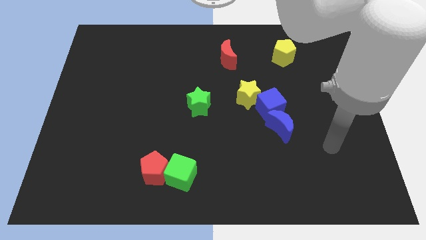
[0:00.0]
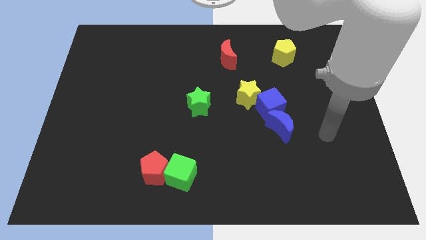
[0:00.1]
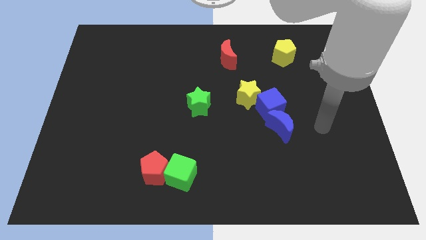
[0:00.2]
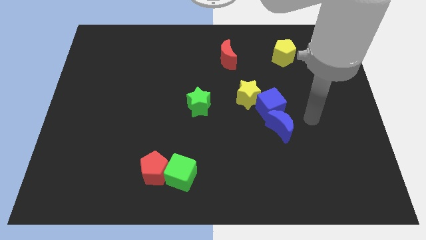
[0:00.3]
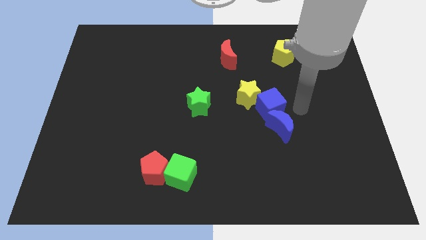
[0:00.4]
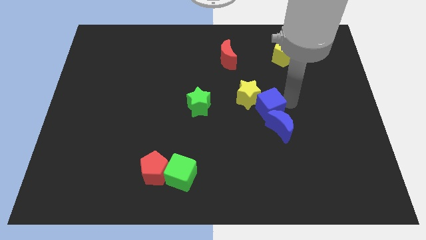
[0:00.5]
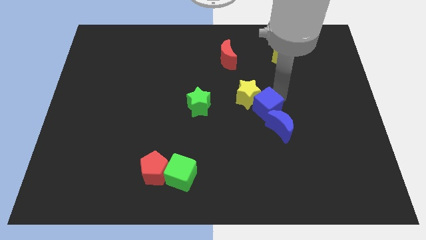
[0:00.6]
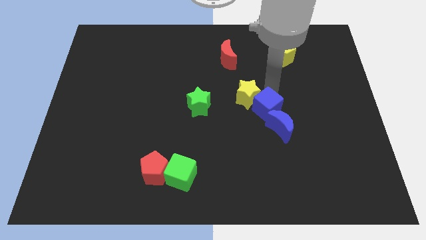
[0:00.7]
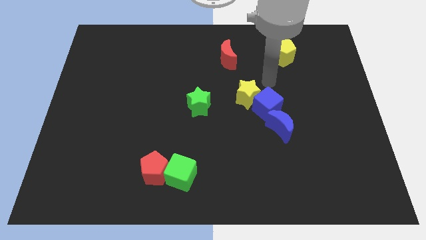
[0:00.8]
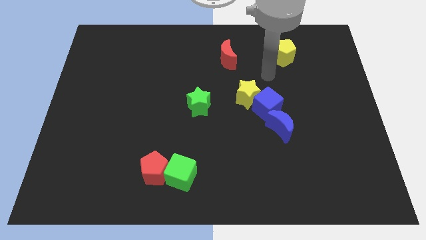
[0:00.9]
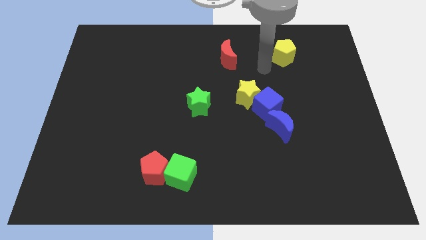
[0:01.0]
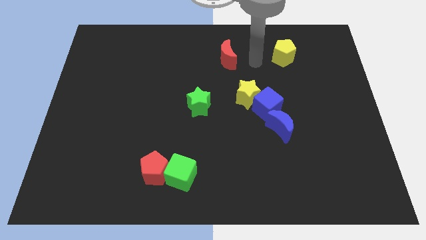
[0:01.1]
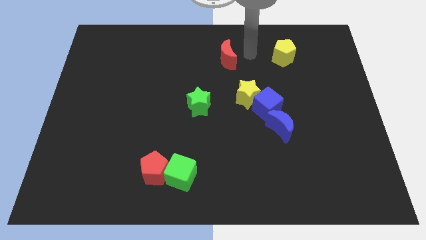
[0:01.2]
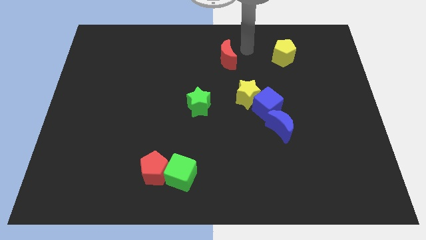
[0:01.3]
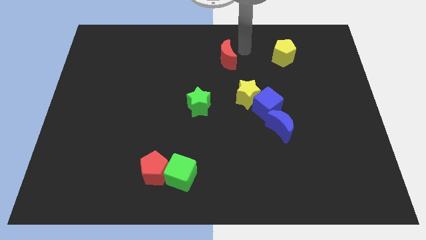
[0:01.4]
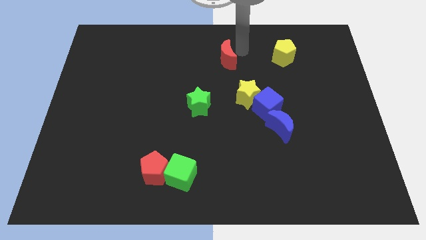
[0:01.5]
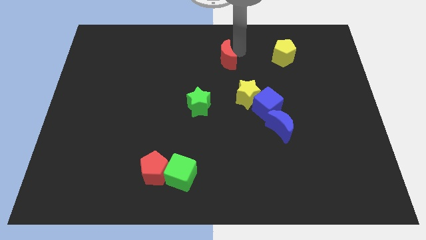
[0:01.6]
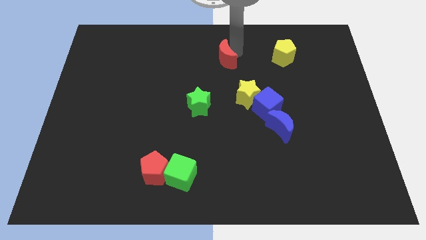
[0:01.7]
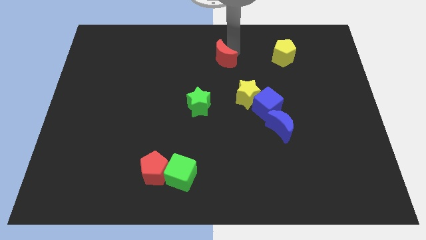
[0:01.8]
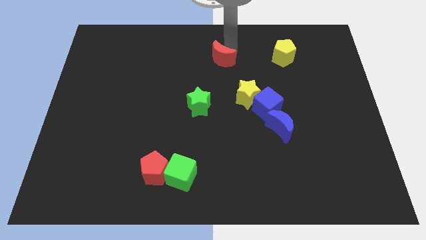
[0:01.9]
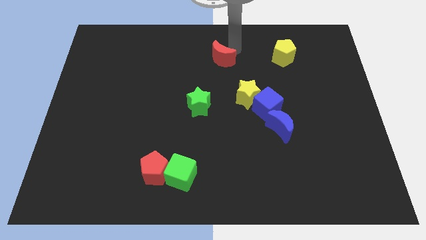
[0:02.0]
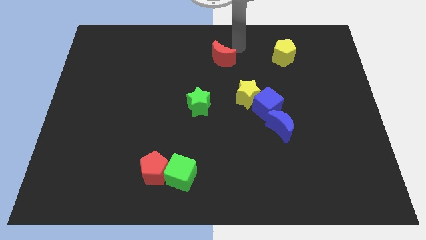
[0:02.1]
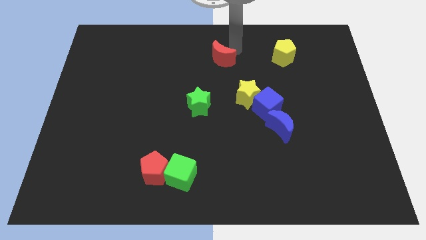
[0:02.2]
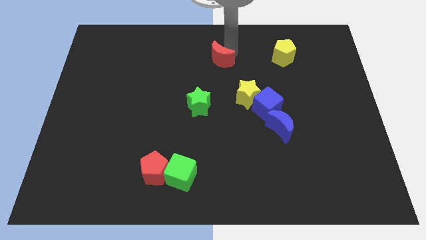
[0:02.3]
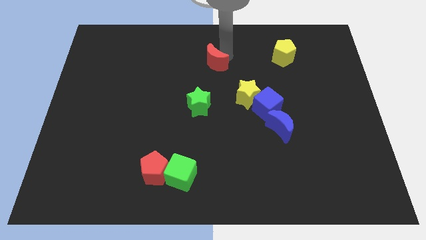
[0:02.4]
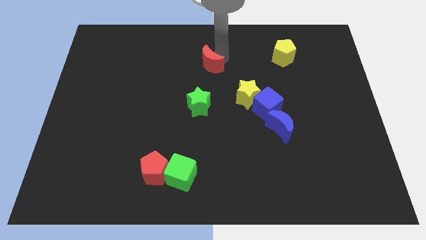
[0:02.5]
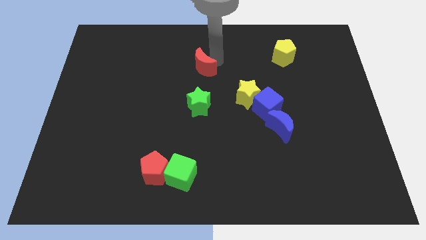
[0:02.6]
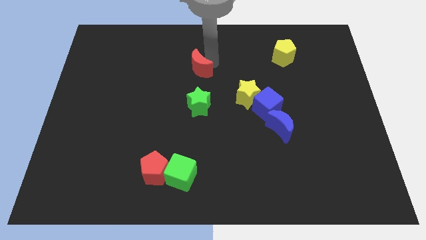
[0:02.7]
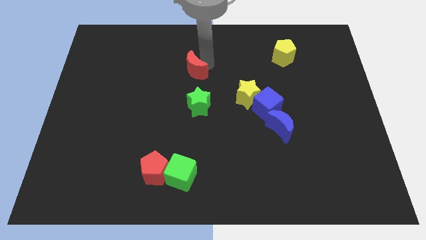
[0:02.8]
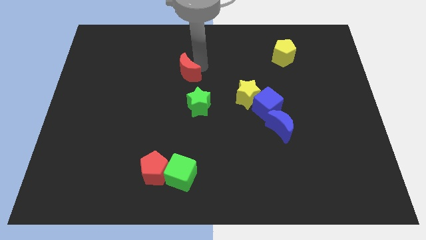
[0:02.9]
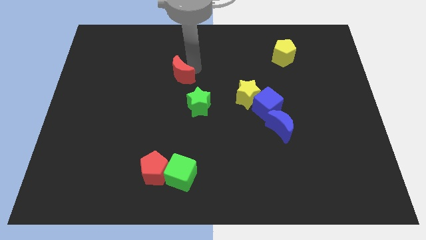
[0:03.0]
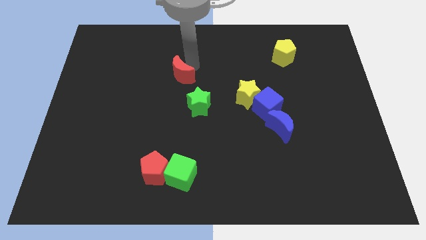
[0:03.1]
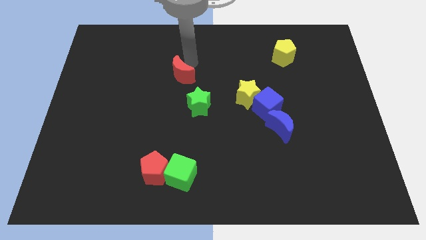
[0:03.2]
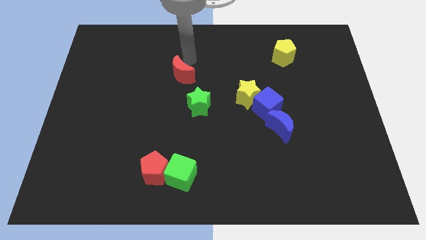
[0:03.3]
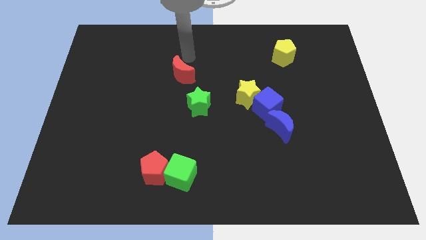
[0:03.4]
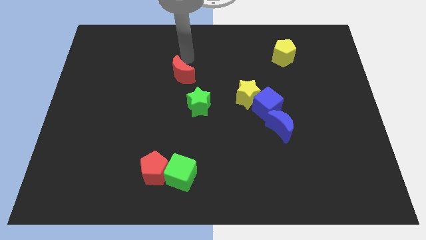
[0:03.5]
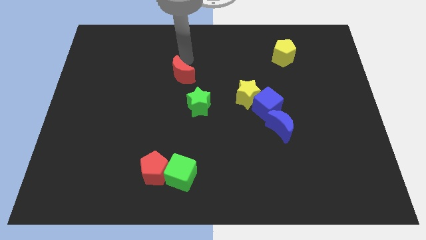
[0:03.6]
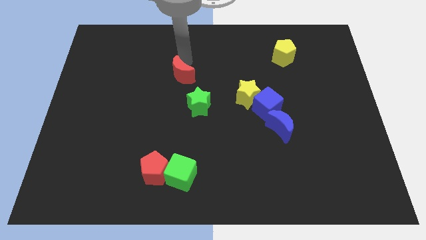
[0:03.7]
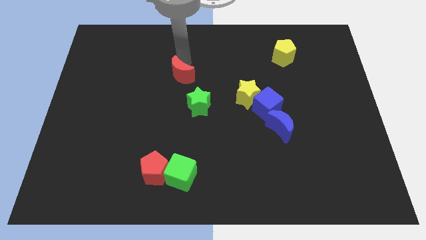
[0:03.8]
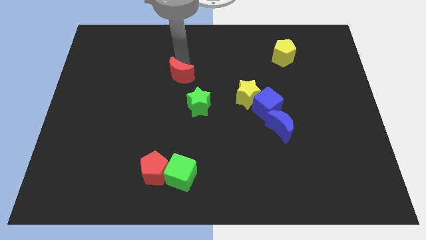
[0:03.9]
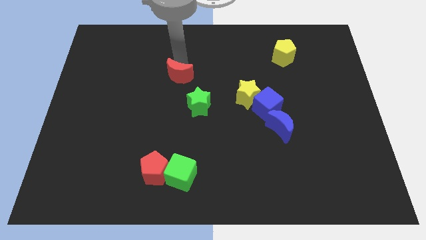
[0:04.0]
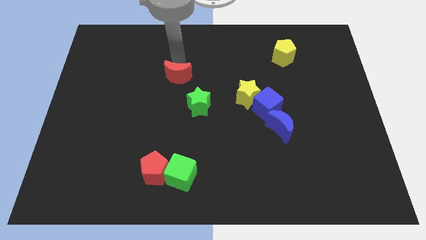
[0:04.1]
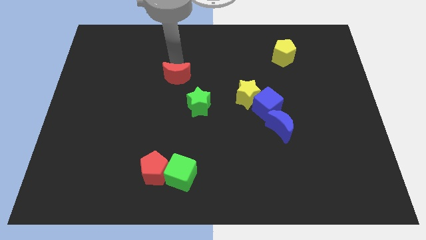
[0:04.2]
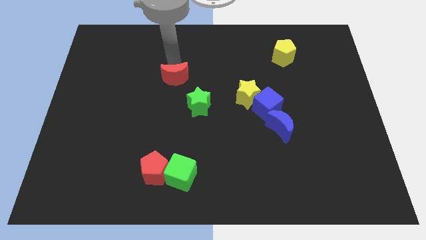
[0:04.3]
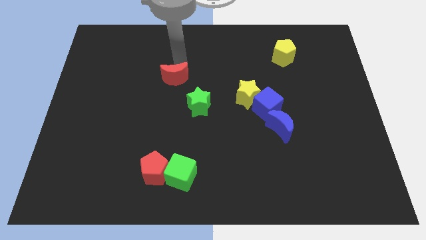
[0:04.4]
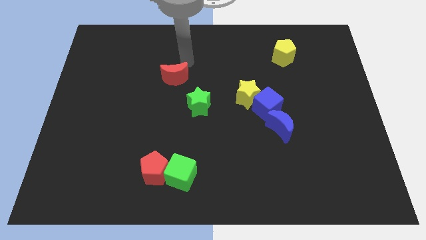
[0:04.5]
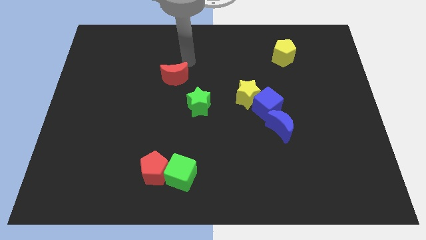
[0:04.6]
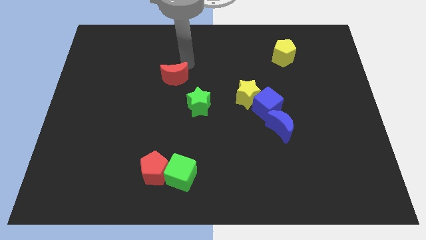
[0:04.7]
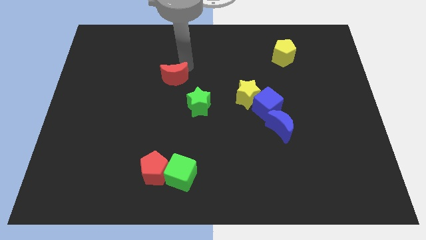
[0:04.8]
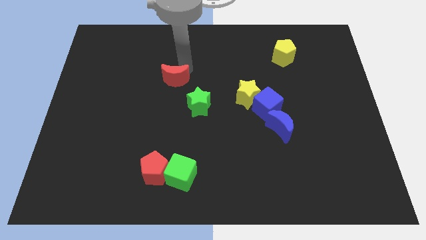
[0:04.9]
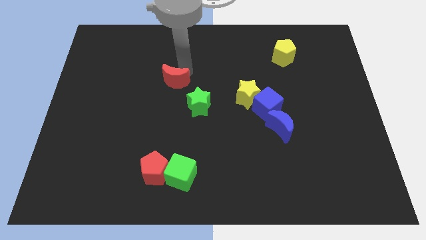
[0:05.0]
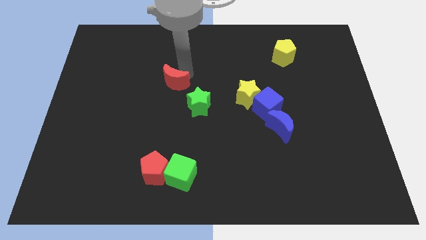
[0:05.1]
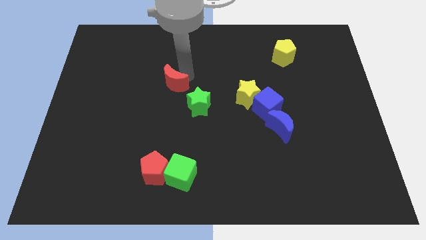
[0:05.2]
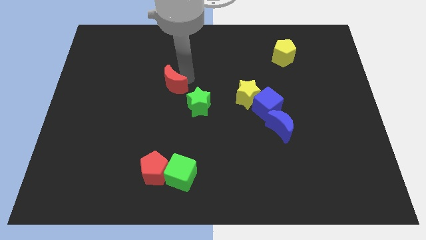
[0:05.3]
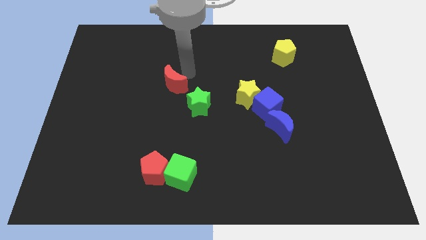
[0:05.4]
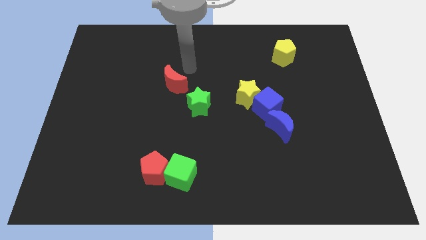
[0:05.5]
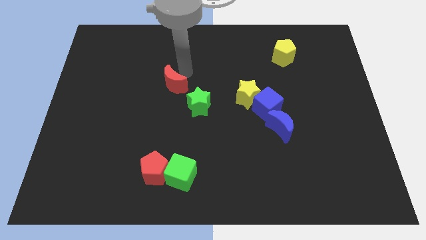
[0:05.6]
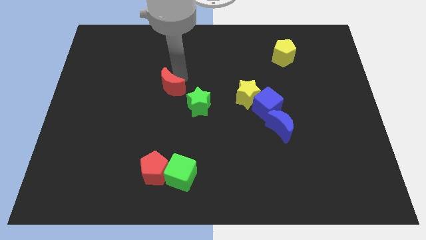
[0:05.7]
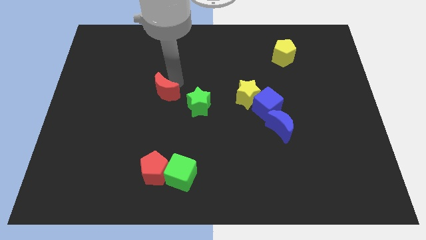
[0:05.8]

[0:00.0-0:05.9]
put the red moon just left of the green star

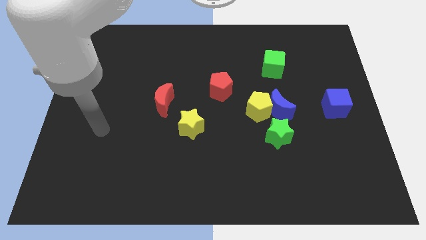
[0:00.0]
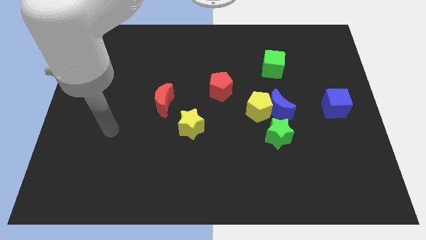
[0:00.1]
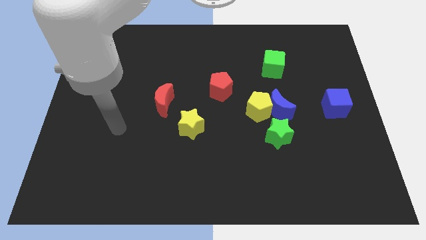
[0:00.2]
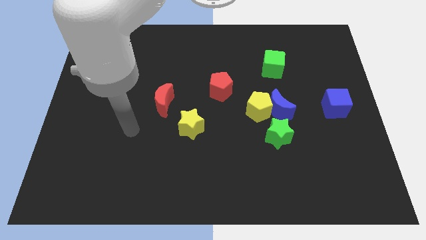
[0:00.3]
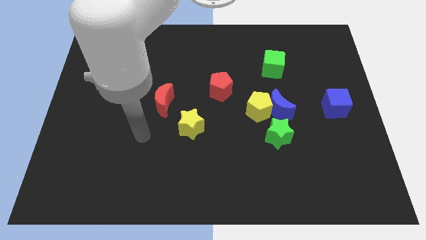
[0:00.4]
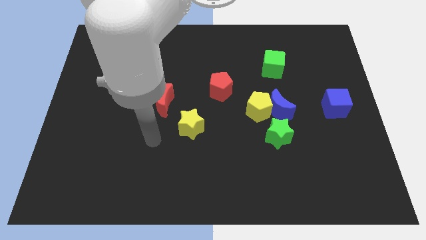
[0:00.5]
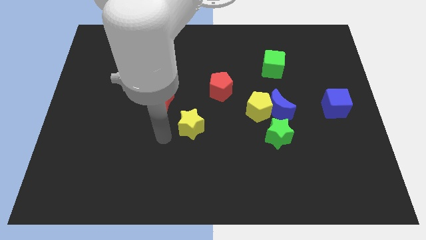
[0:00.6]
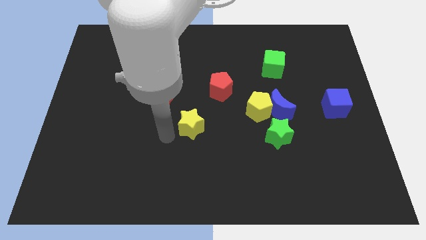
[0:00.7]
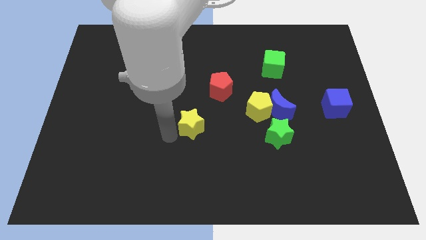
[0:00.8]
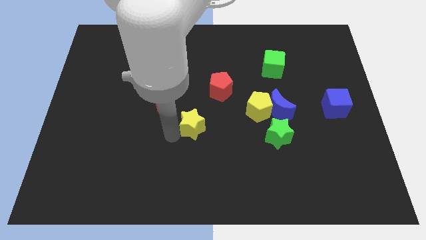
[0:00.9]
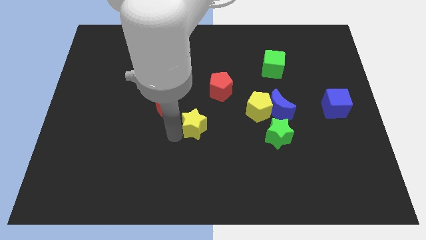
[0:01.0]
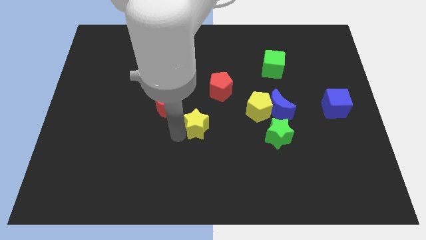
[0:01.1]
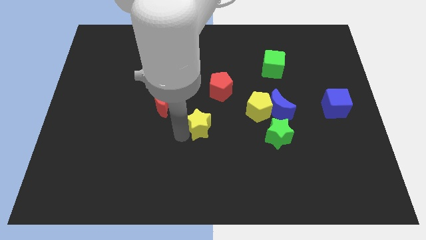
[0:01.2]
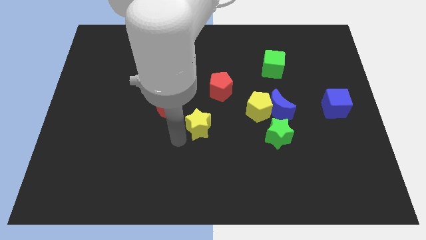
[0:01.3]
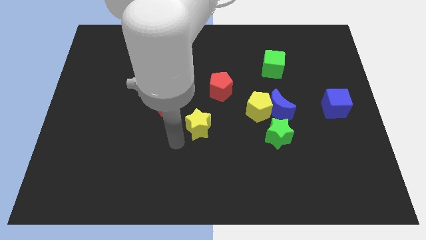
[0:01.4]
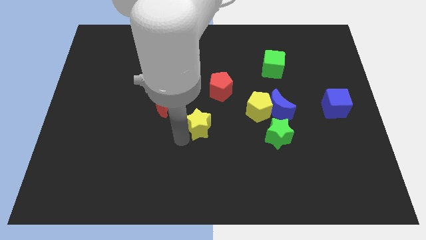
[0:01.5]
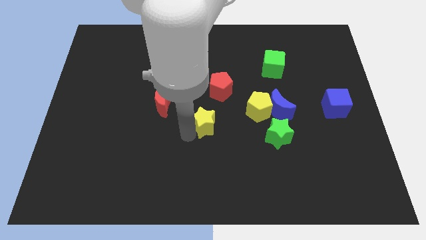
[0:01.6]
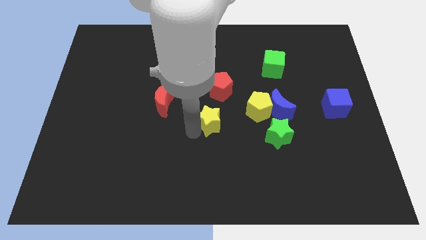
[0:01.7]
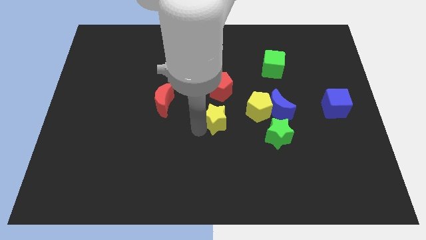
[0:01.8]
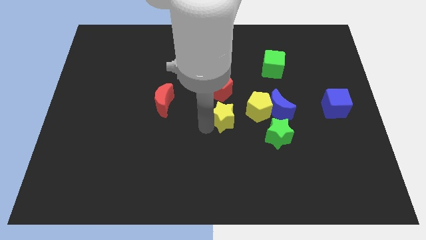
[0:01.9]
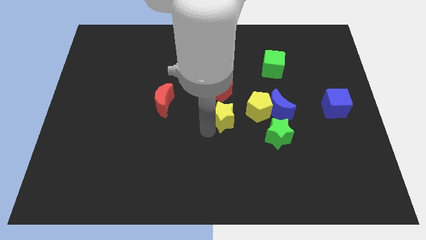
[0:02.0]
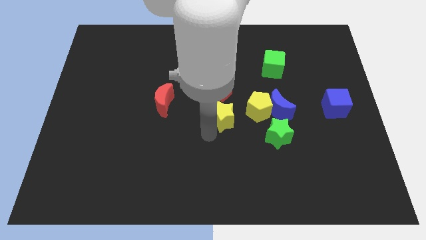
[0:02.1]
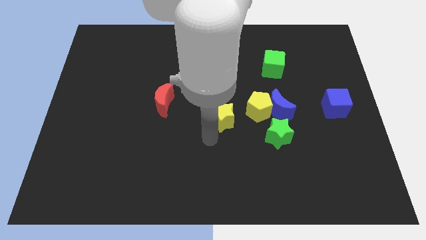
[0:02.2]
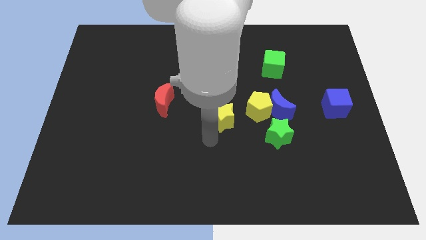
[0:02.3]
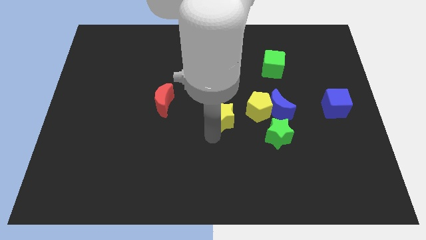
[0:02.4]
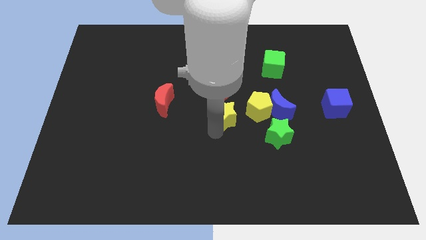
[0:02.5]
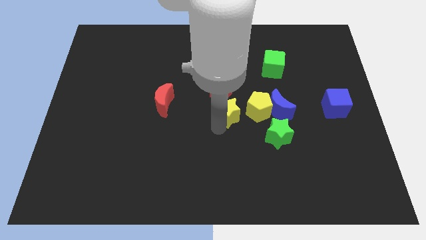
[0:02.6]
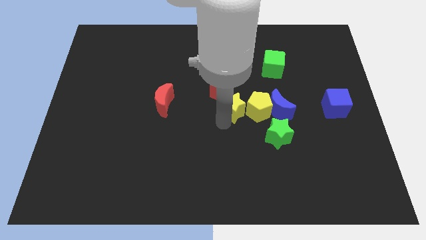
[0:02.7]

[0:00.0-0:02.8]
slide the yellow star diagonally up and to the left of the yellow pentagon
